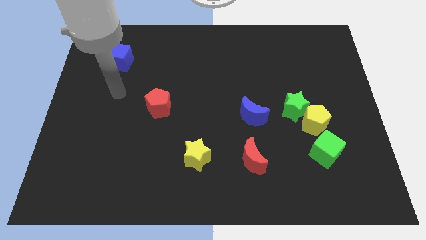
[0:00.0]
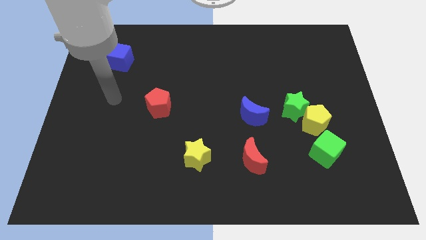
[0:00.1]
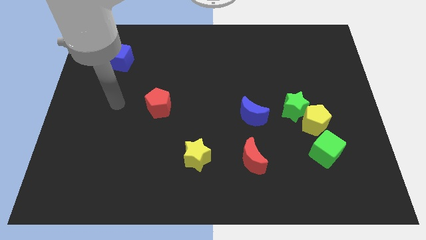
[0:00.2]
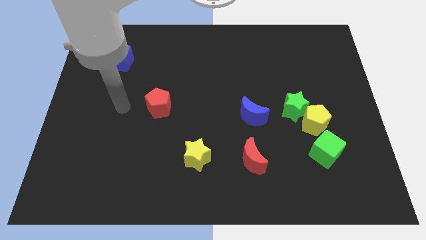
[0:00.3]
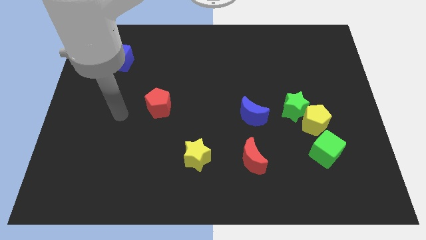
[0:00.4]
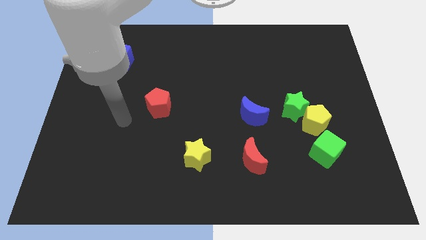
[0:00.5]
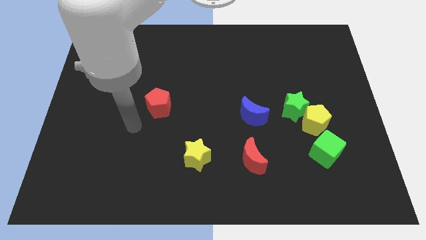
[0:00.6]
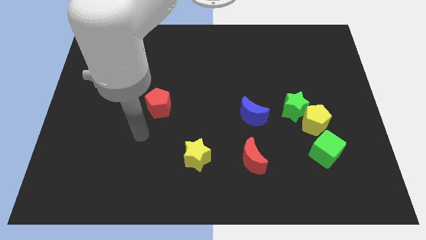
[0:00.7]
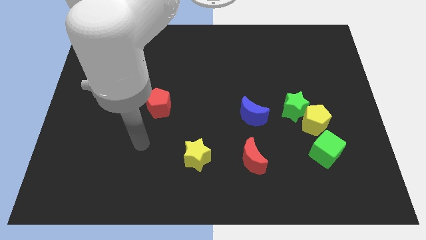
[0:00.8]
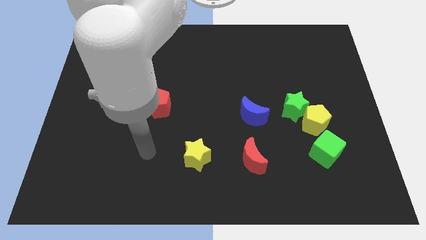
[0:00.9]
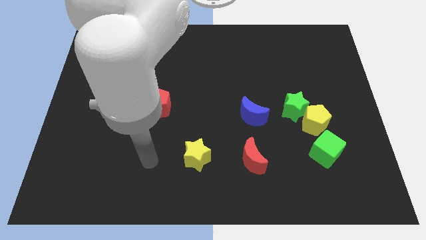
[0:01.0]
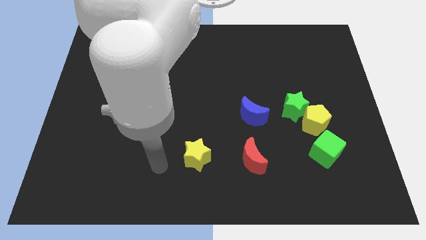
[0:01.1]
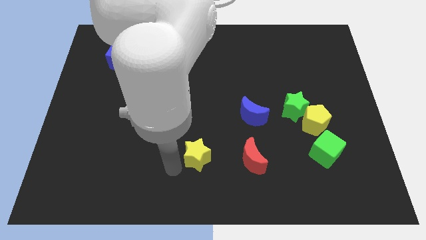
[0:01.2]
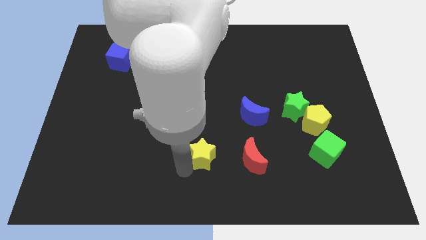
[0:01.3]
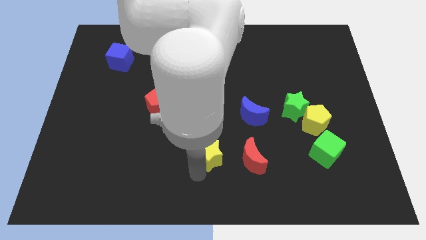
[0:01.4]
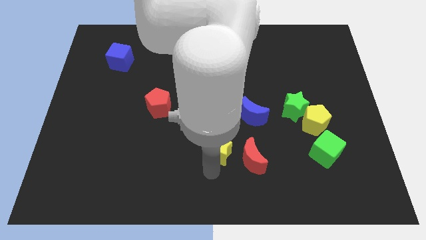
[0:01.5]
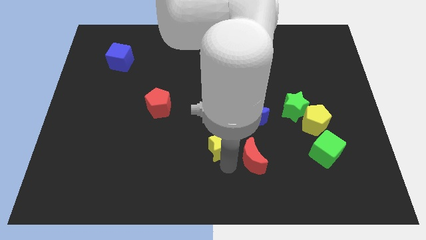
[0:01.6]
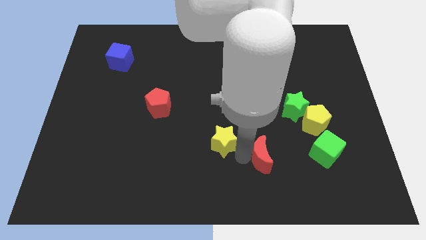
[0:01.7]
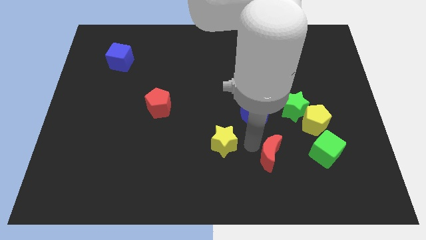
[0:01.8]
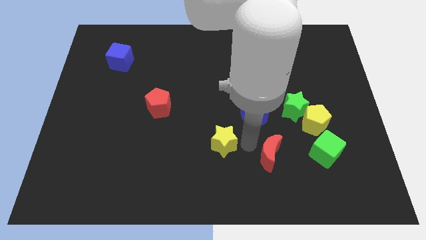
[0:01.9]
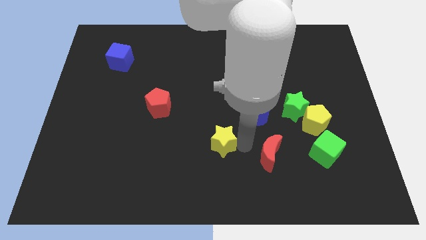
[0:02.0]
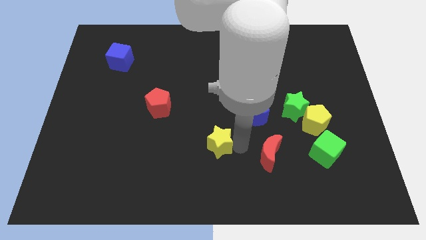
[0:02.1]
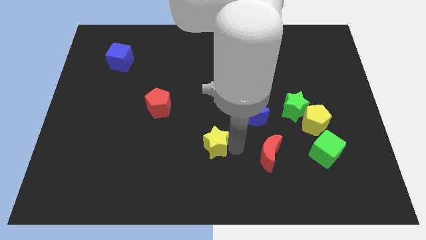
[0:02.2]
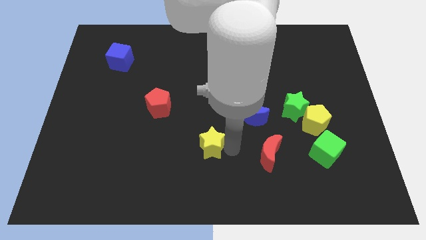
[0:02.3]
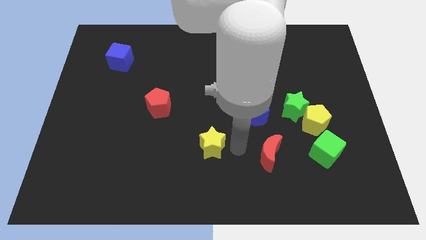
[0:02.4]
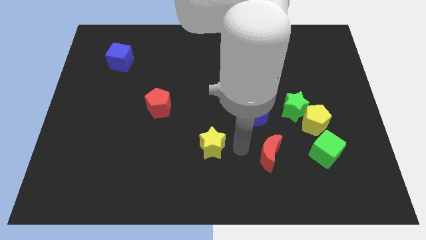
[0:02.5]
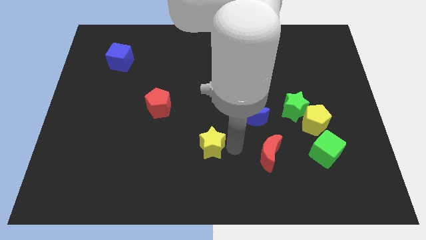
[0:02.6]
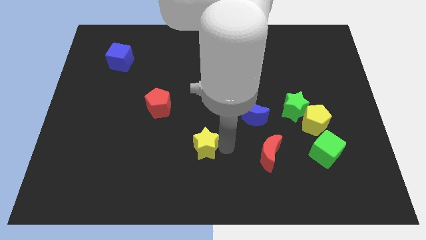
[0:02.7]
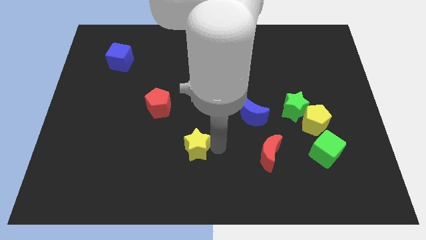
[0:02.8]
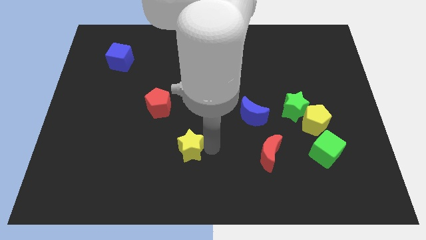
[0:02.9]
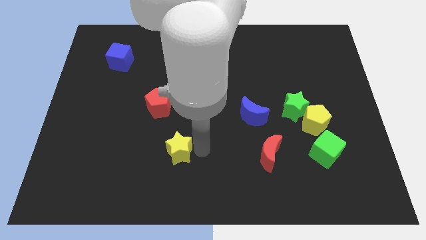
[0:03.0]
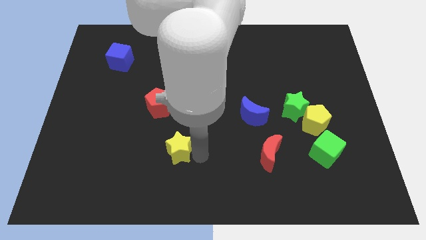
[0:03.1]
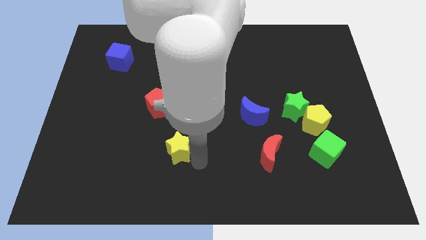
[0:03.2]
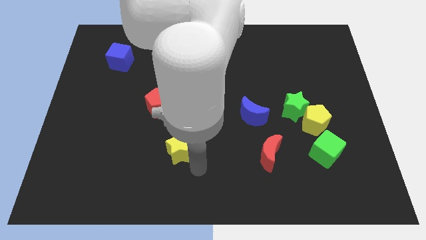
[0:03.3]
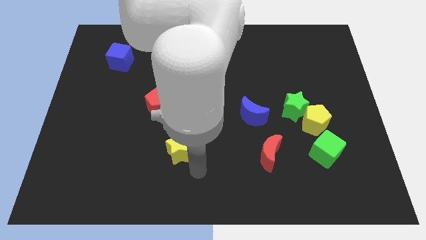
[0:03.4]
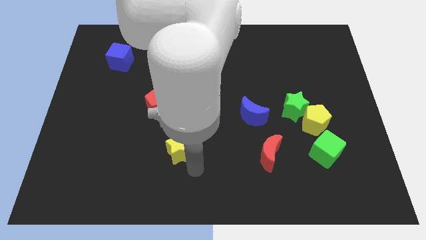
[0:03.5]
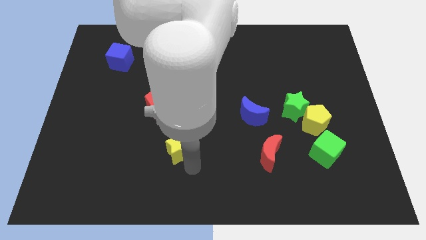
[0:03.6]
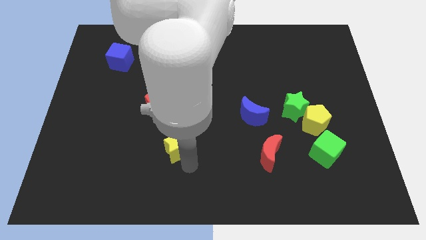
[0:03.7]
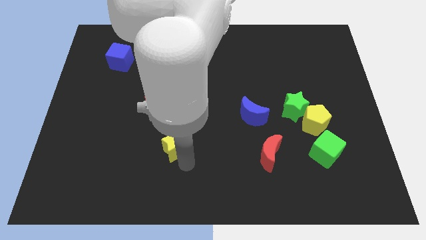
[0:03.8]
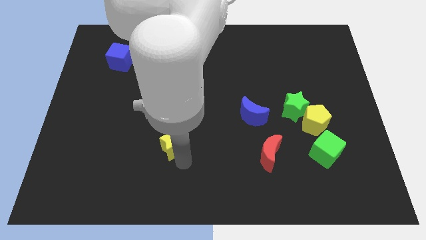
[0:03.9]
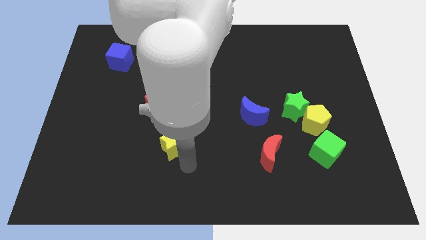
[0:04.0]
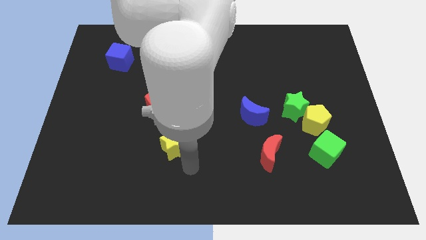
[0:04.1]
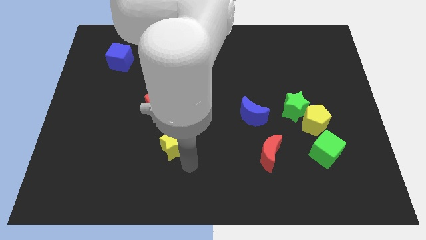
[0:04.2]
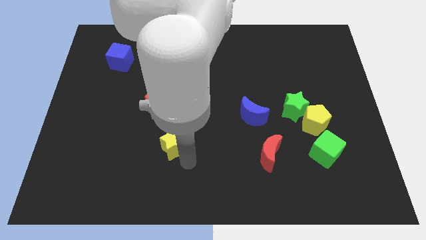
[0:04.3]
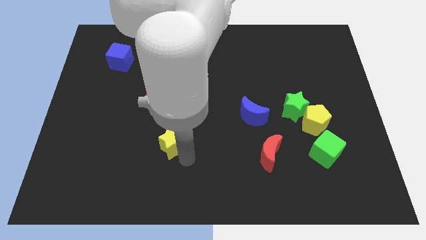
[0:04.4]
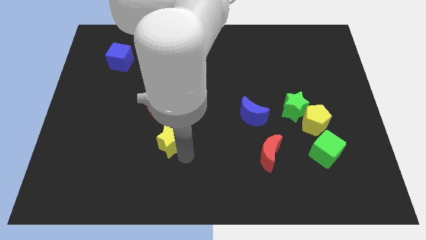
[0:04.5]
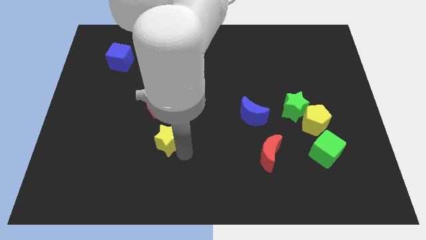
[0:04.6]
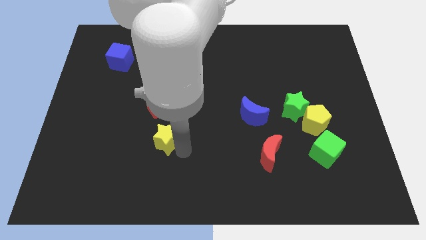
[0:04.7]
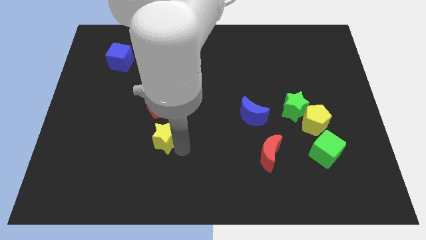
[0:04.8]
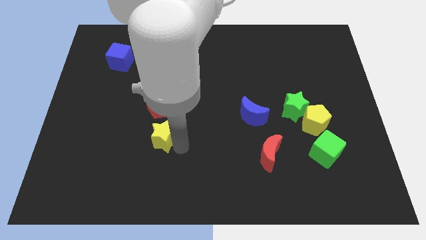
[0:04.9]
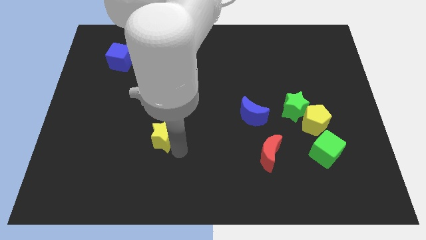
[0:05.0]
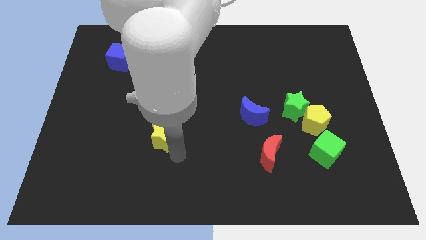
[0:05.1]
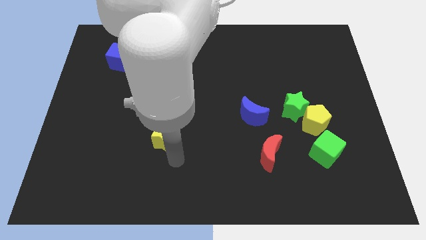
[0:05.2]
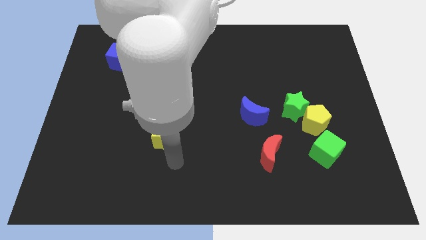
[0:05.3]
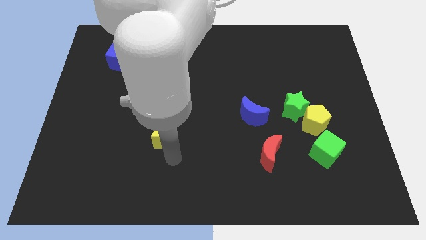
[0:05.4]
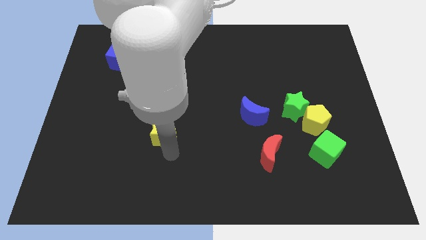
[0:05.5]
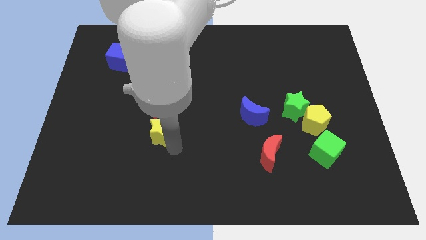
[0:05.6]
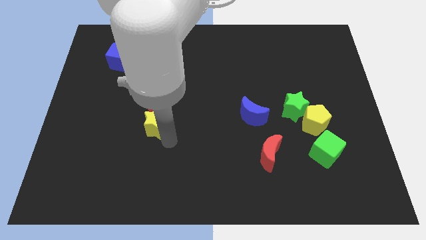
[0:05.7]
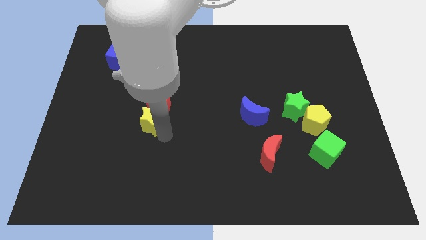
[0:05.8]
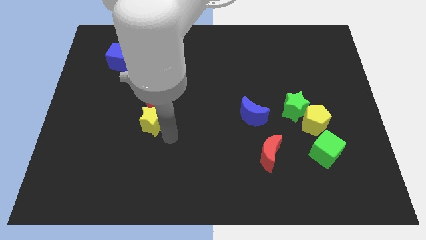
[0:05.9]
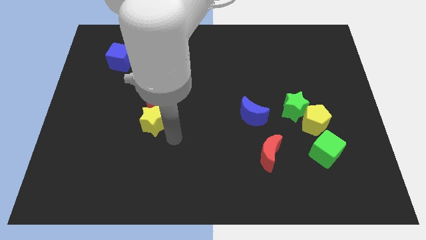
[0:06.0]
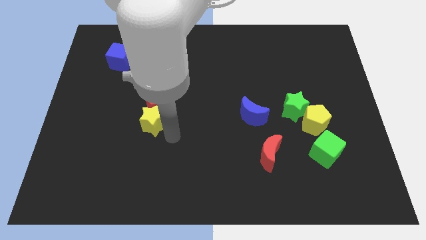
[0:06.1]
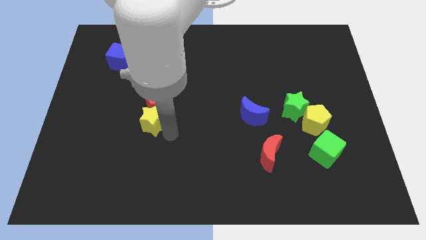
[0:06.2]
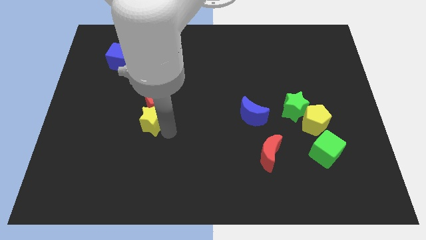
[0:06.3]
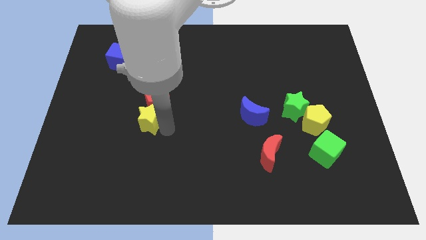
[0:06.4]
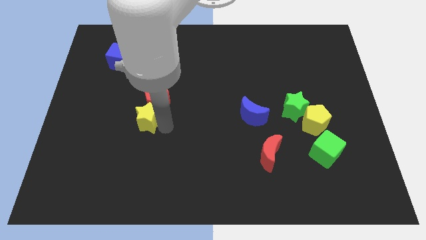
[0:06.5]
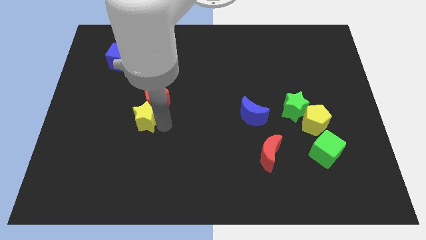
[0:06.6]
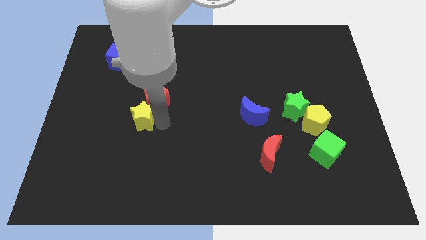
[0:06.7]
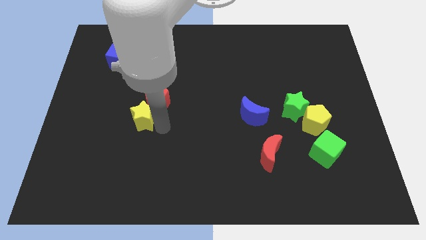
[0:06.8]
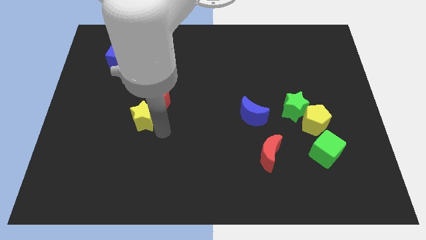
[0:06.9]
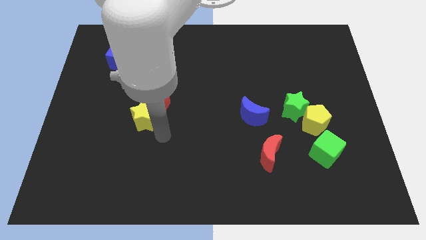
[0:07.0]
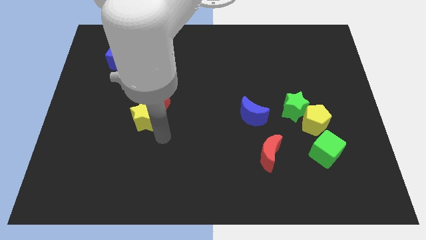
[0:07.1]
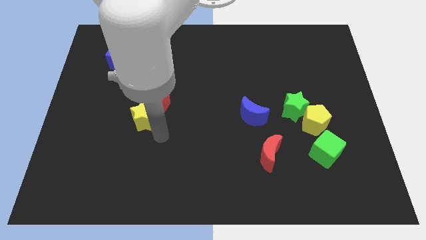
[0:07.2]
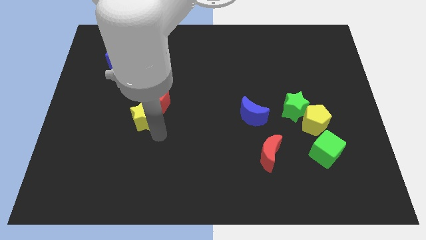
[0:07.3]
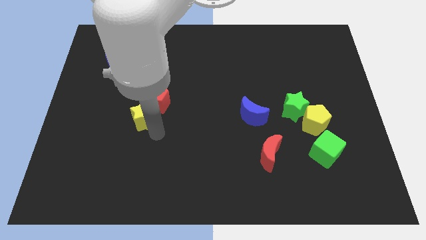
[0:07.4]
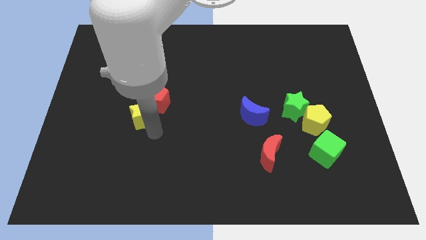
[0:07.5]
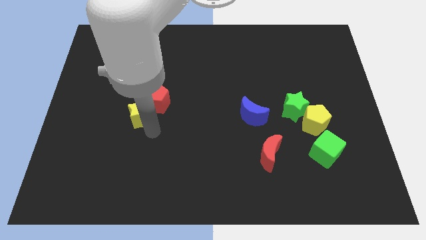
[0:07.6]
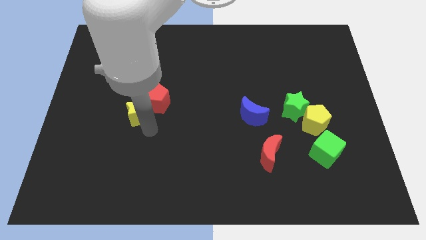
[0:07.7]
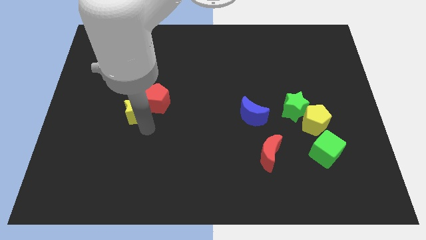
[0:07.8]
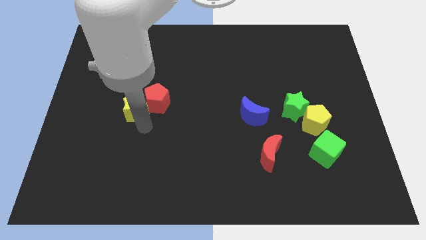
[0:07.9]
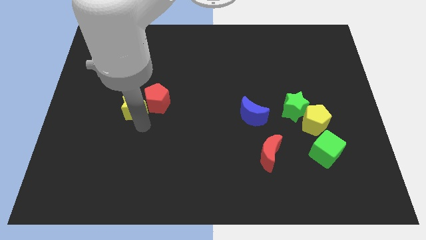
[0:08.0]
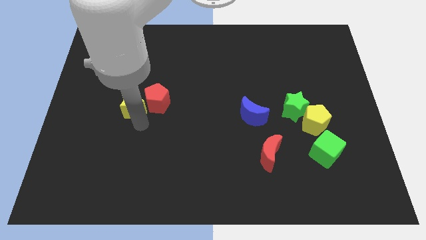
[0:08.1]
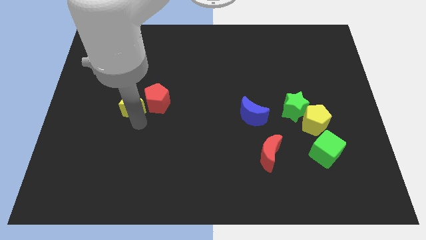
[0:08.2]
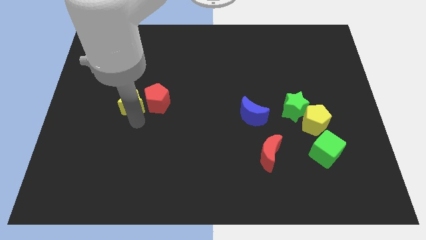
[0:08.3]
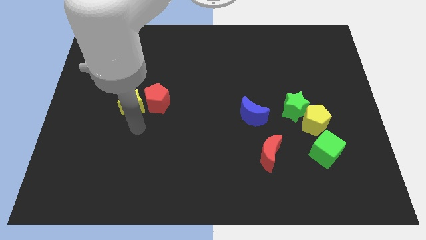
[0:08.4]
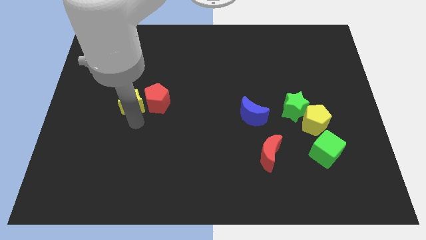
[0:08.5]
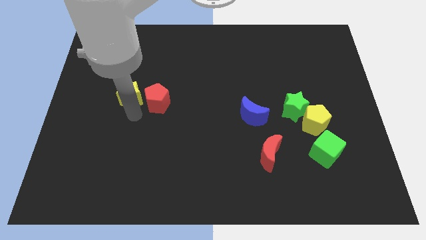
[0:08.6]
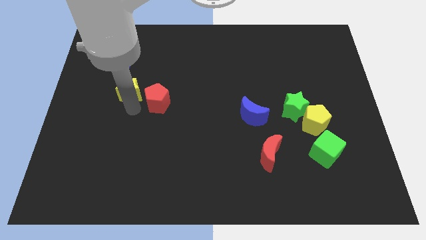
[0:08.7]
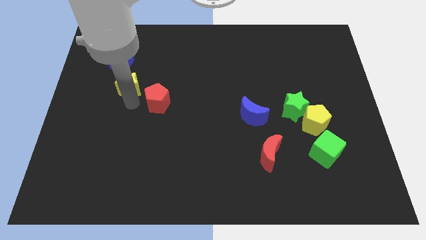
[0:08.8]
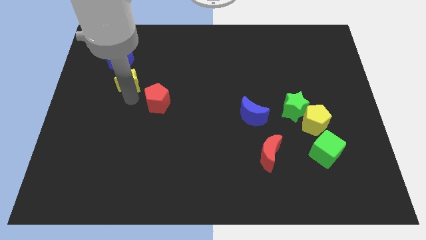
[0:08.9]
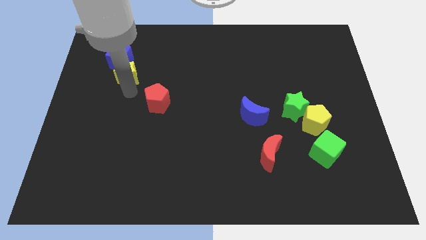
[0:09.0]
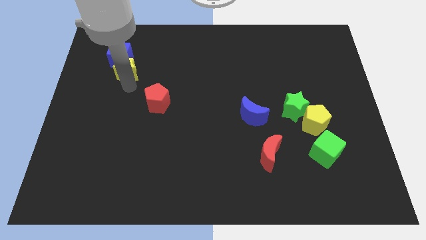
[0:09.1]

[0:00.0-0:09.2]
move the yellow star towards the blue cube
